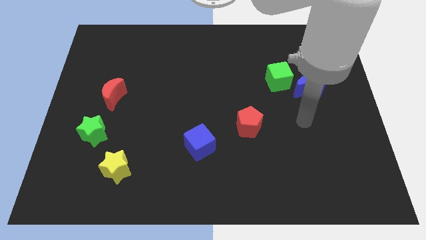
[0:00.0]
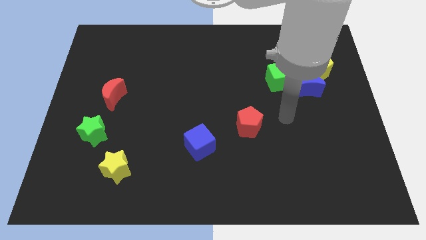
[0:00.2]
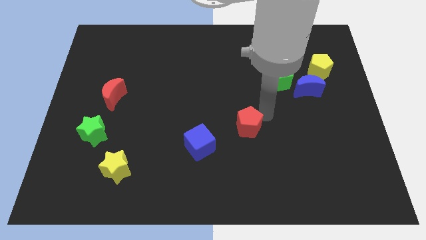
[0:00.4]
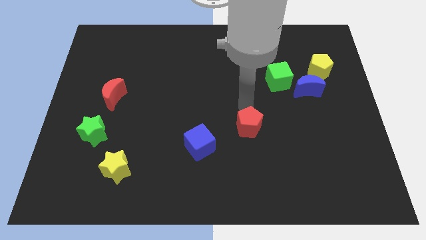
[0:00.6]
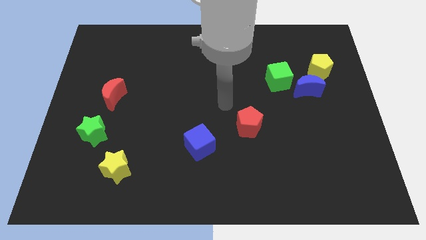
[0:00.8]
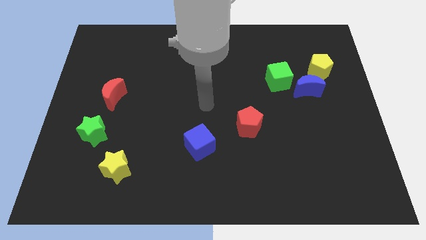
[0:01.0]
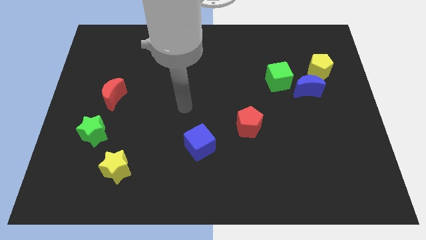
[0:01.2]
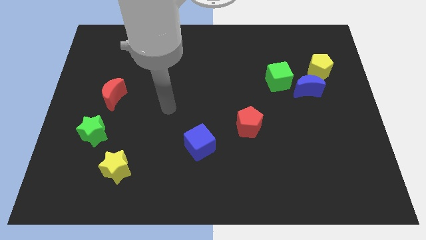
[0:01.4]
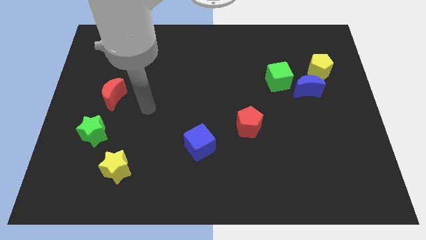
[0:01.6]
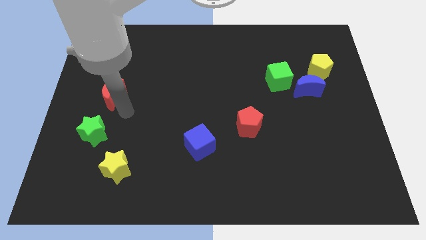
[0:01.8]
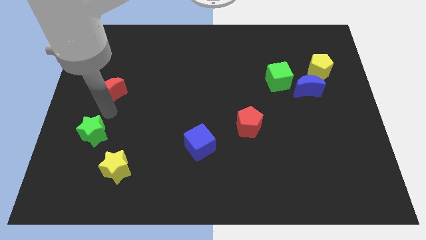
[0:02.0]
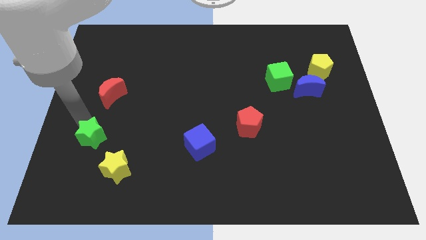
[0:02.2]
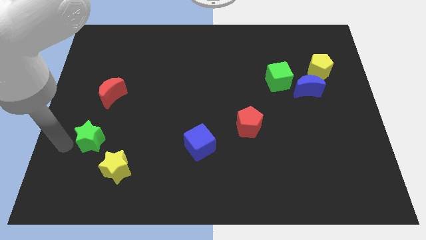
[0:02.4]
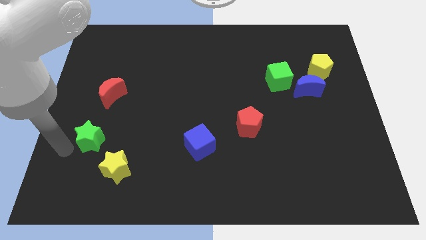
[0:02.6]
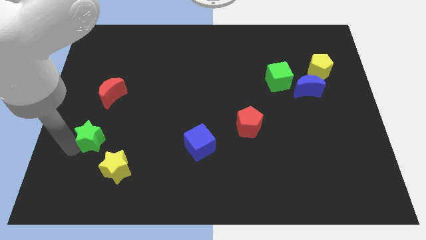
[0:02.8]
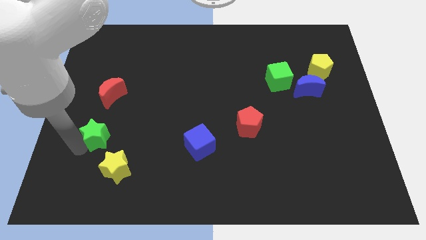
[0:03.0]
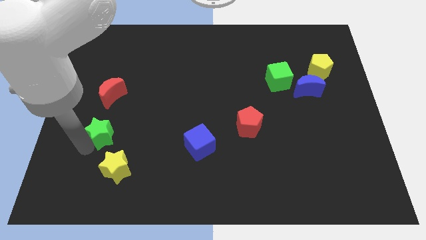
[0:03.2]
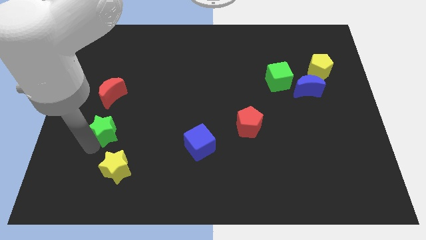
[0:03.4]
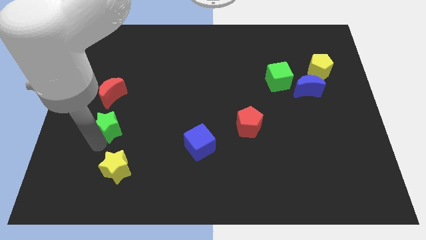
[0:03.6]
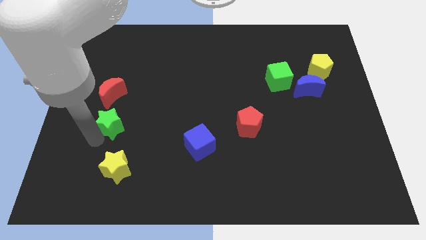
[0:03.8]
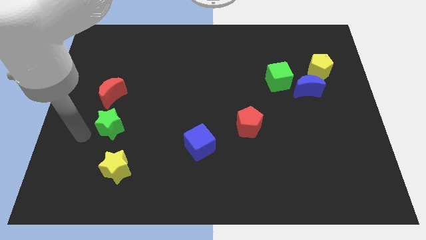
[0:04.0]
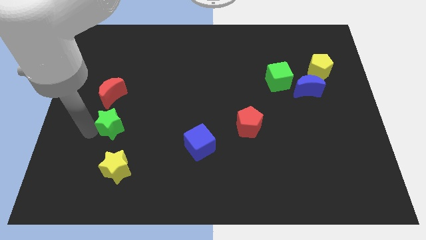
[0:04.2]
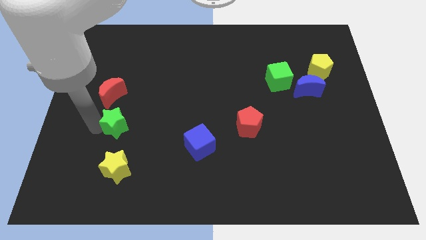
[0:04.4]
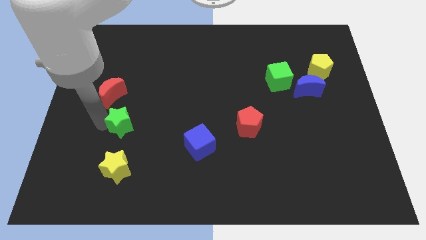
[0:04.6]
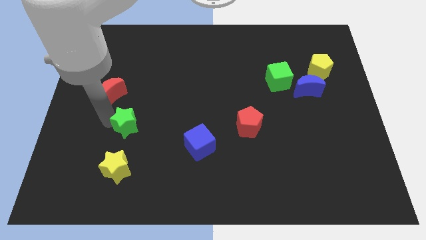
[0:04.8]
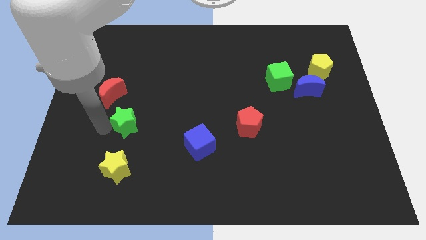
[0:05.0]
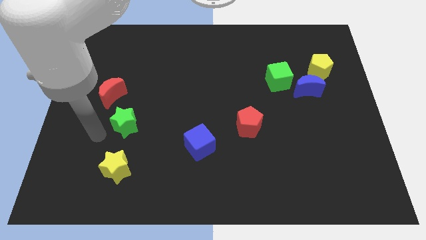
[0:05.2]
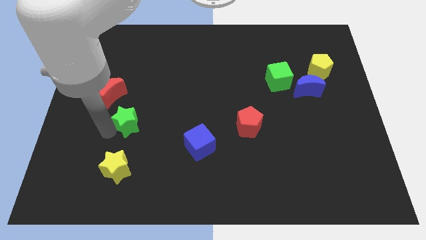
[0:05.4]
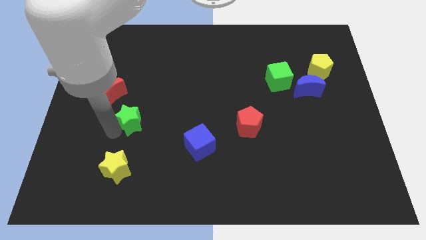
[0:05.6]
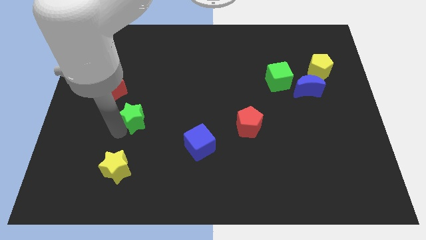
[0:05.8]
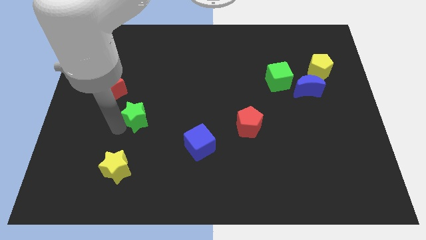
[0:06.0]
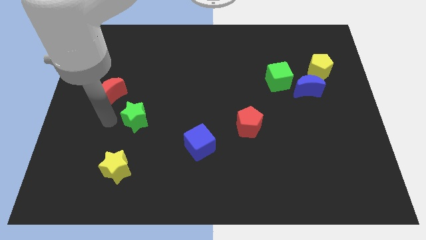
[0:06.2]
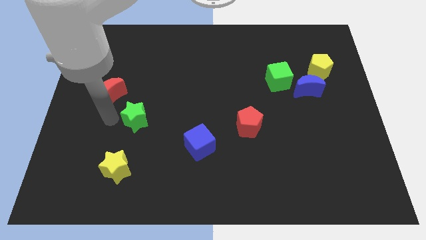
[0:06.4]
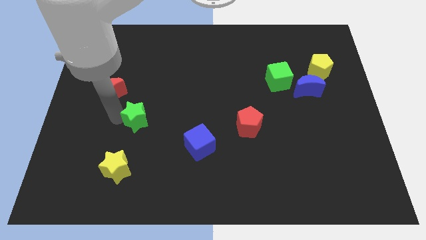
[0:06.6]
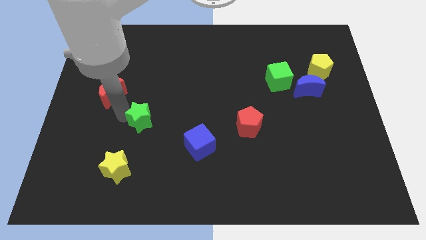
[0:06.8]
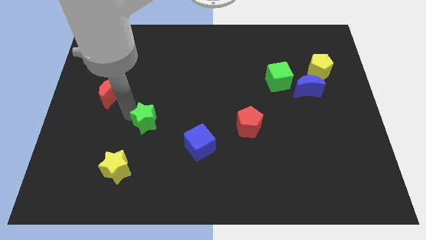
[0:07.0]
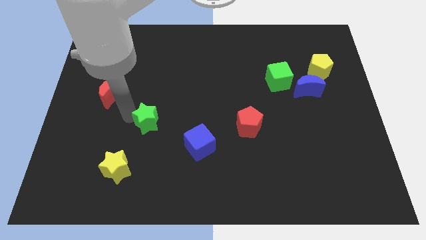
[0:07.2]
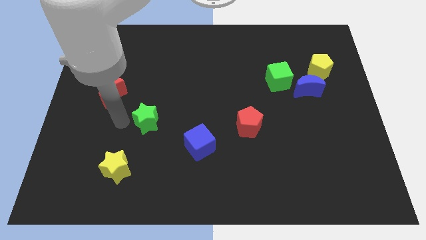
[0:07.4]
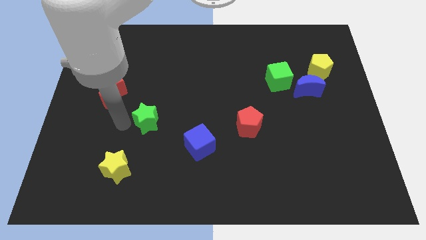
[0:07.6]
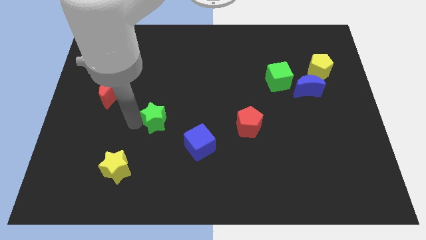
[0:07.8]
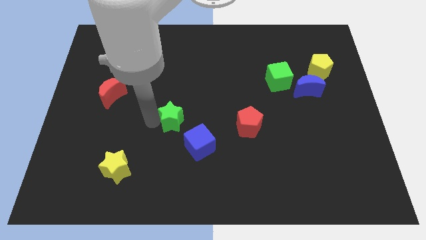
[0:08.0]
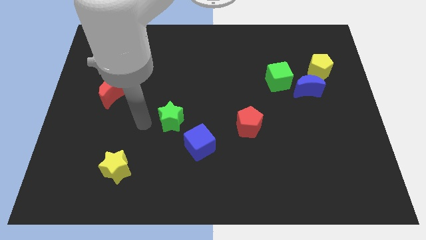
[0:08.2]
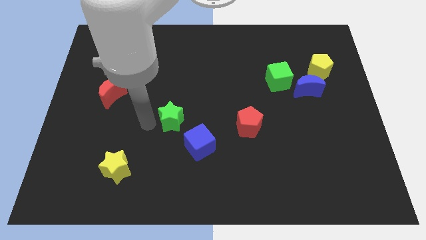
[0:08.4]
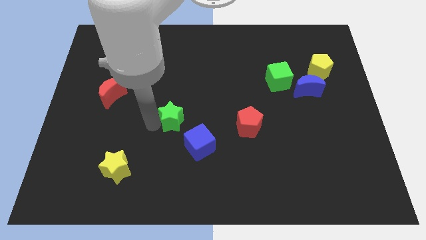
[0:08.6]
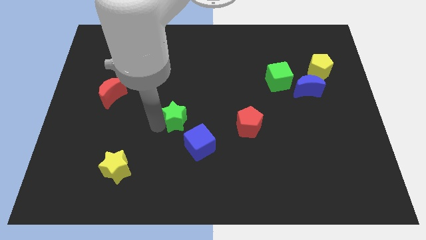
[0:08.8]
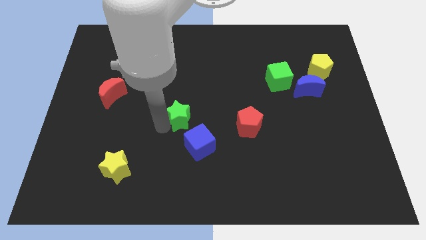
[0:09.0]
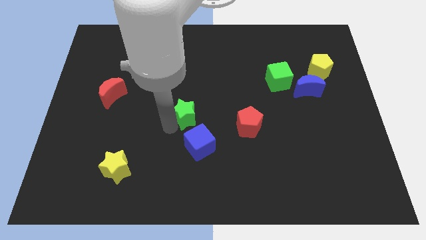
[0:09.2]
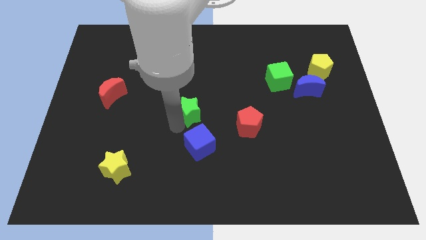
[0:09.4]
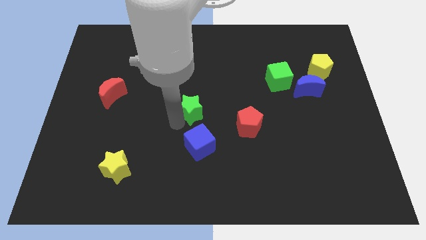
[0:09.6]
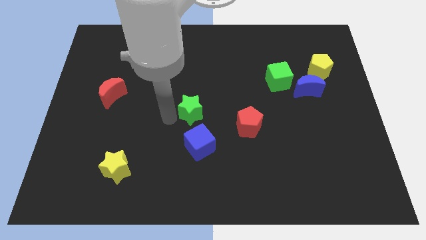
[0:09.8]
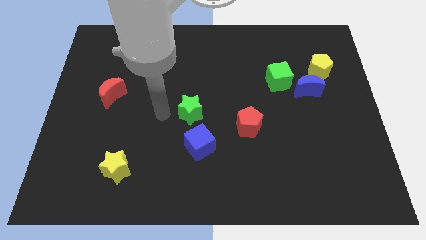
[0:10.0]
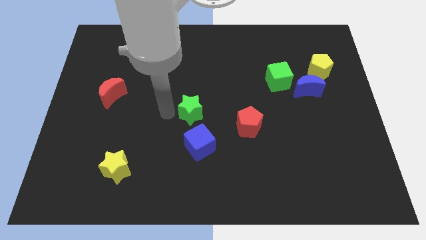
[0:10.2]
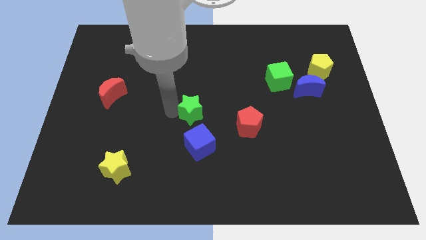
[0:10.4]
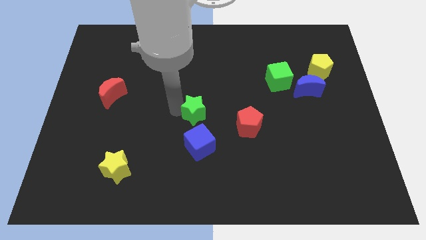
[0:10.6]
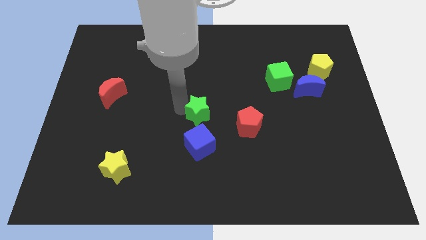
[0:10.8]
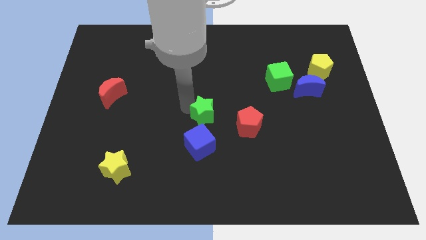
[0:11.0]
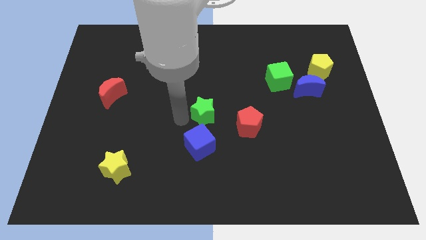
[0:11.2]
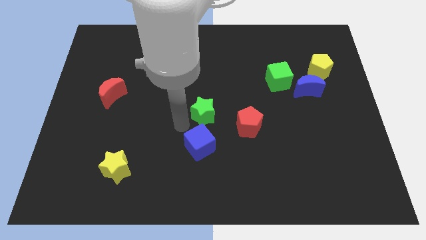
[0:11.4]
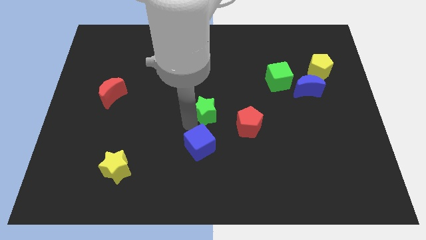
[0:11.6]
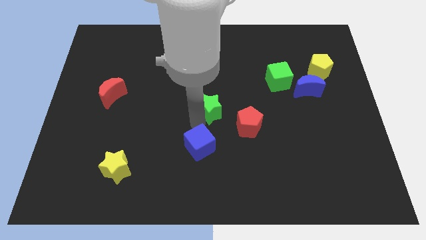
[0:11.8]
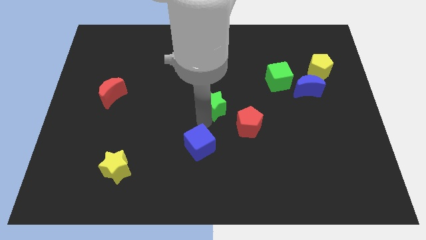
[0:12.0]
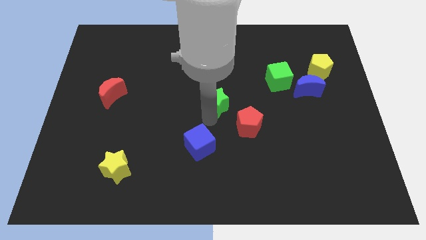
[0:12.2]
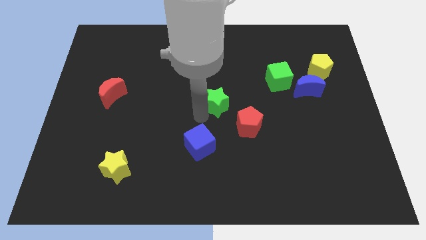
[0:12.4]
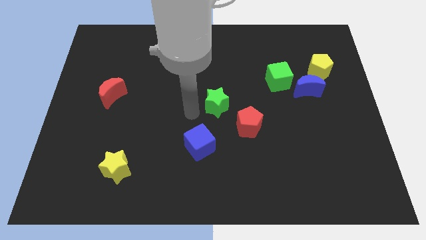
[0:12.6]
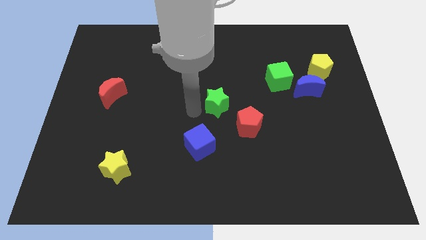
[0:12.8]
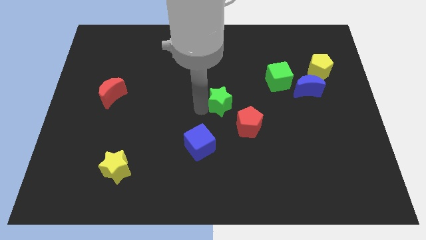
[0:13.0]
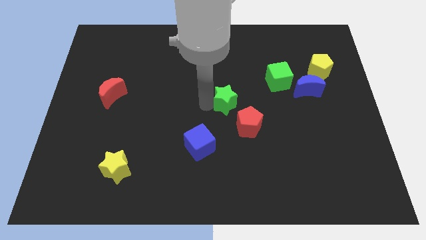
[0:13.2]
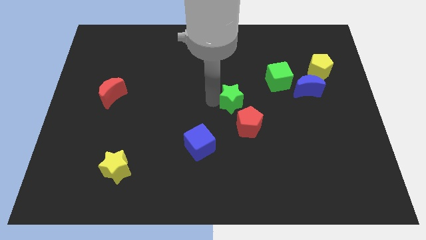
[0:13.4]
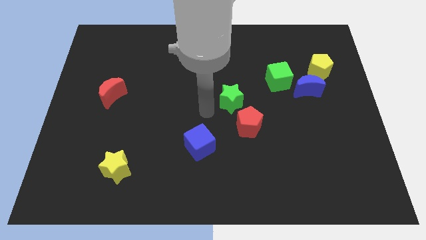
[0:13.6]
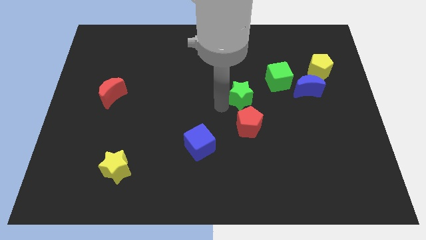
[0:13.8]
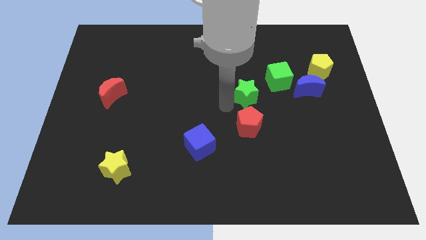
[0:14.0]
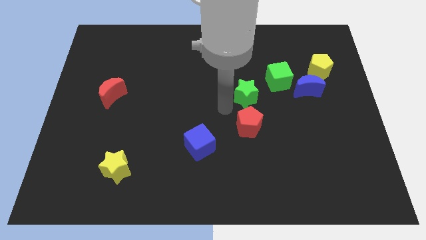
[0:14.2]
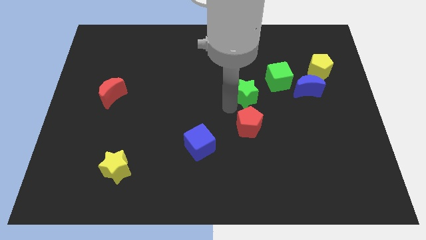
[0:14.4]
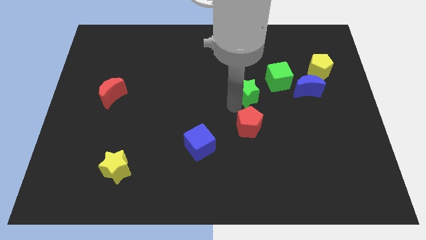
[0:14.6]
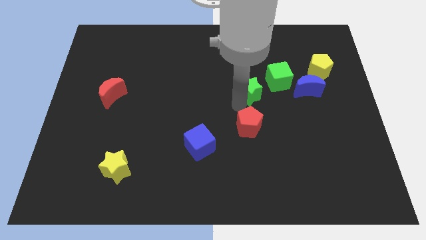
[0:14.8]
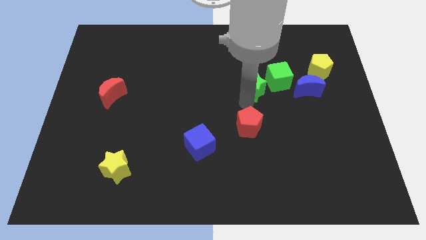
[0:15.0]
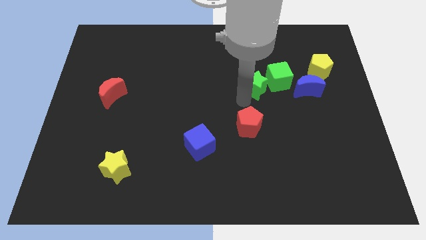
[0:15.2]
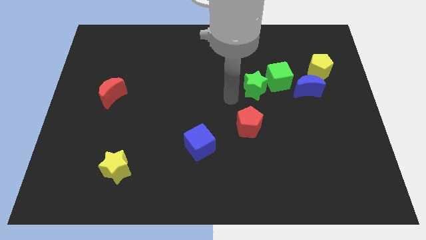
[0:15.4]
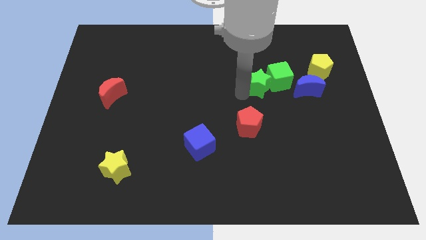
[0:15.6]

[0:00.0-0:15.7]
move the green star to the green cube

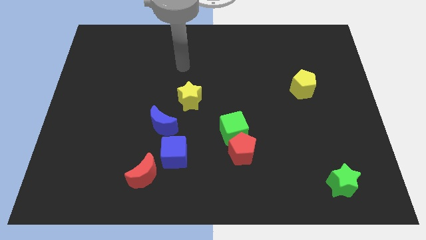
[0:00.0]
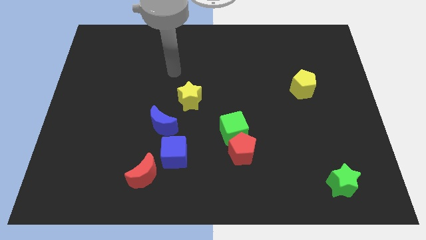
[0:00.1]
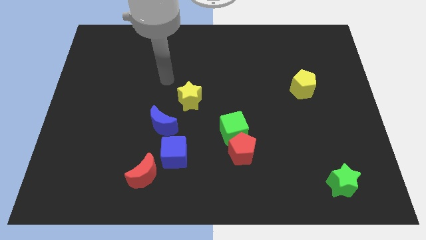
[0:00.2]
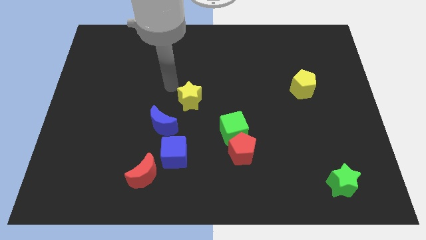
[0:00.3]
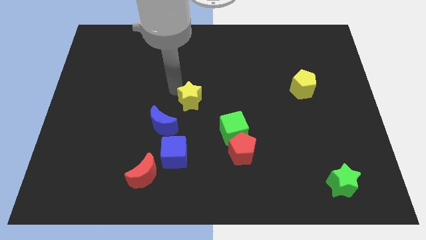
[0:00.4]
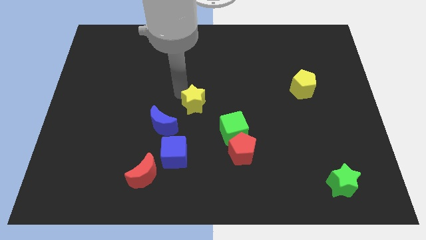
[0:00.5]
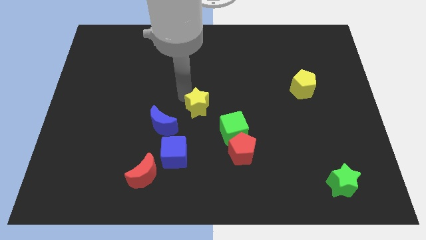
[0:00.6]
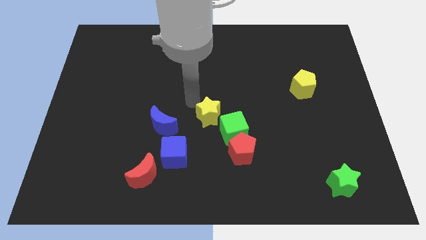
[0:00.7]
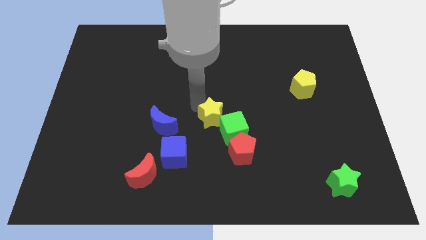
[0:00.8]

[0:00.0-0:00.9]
push the yellow star to the green cube
